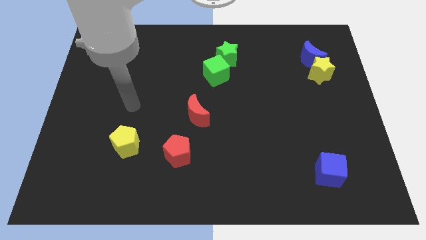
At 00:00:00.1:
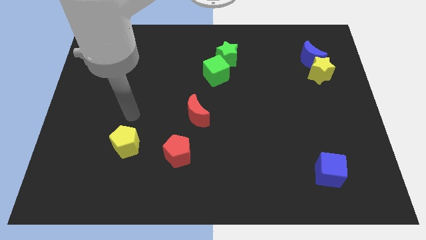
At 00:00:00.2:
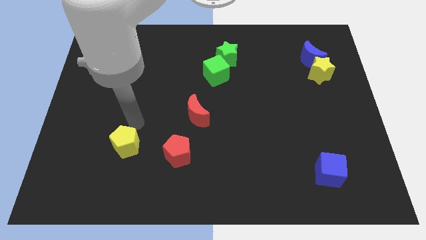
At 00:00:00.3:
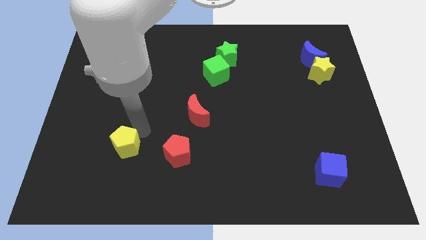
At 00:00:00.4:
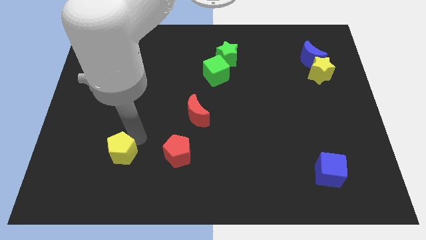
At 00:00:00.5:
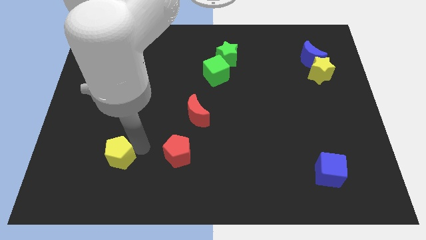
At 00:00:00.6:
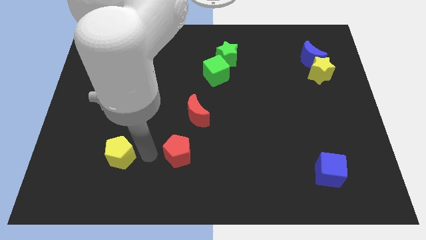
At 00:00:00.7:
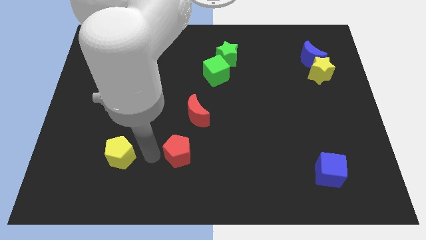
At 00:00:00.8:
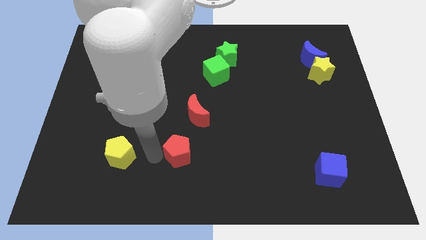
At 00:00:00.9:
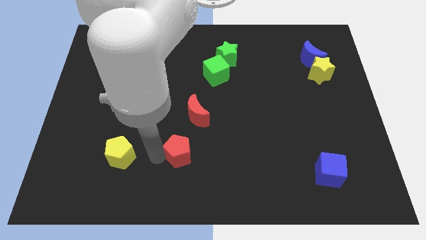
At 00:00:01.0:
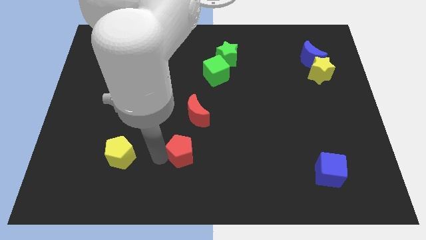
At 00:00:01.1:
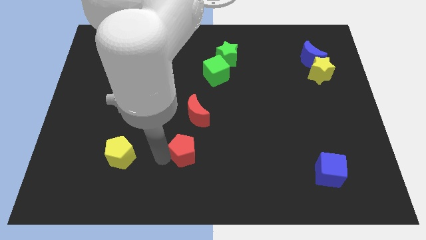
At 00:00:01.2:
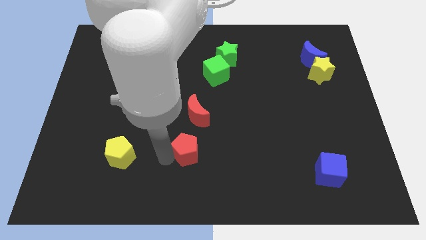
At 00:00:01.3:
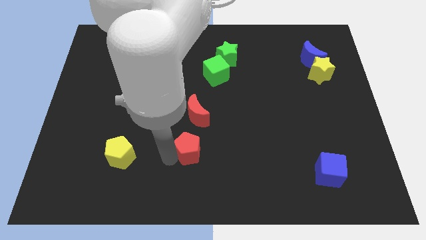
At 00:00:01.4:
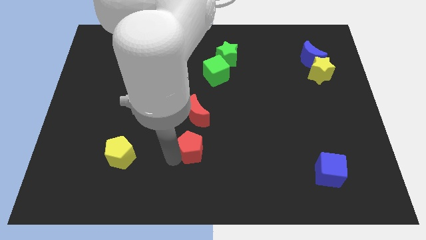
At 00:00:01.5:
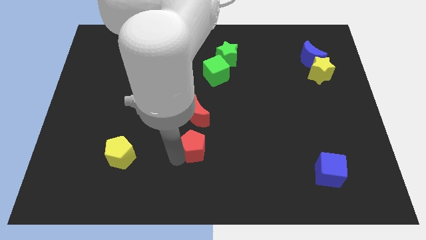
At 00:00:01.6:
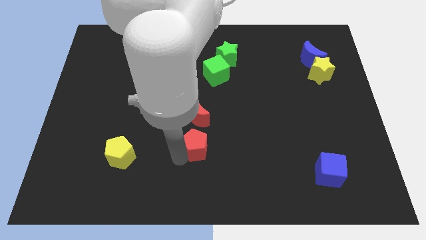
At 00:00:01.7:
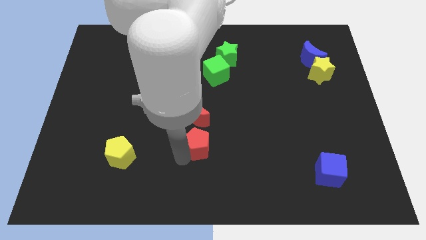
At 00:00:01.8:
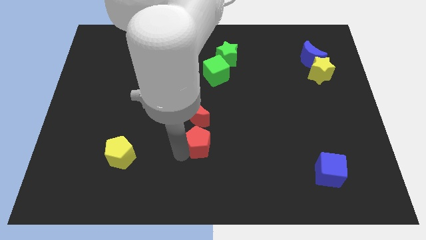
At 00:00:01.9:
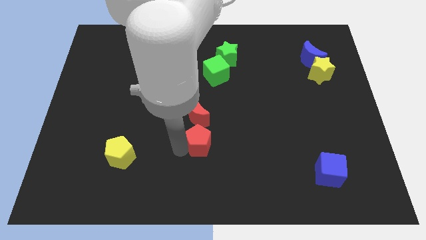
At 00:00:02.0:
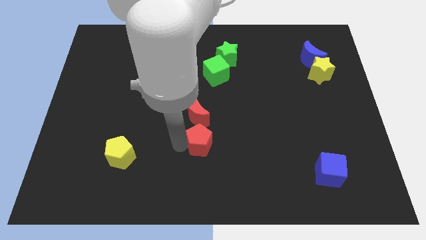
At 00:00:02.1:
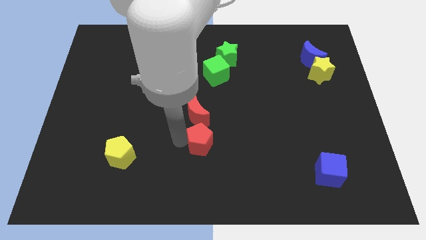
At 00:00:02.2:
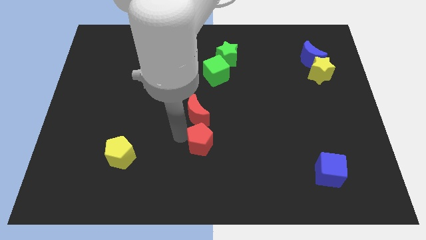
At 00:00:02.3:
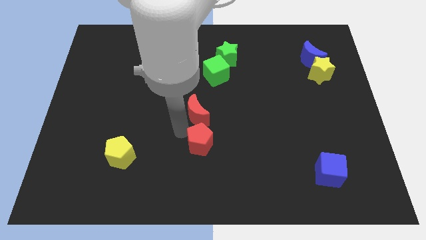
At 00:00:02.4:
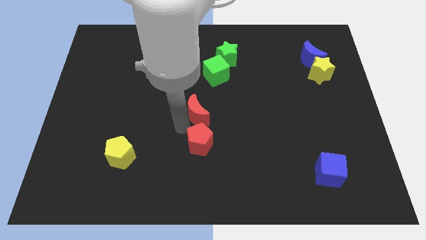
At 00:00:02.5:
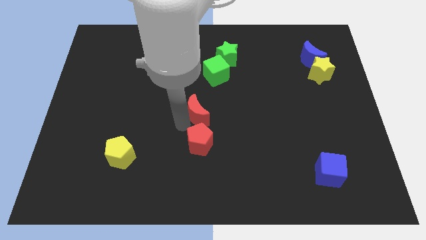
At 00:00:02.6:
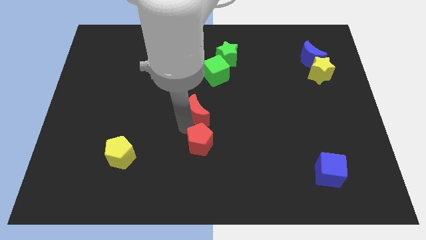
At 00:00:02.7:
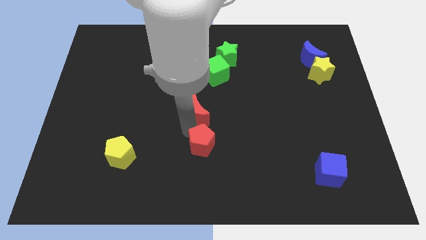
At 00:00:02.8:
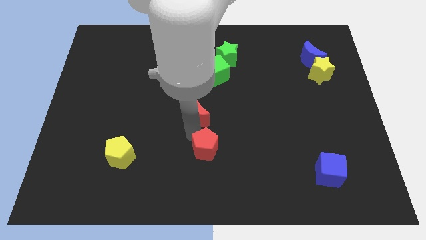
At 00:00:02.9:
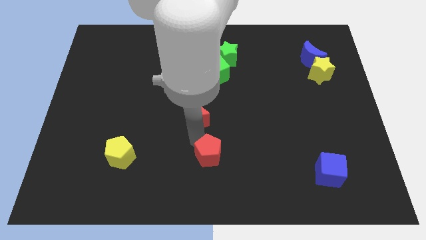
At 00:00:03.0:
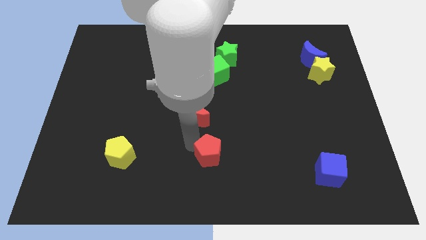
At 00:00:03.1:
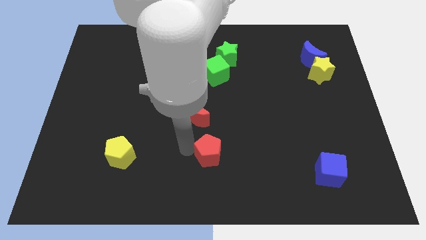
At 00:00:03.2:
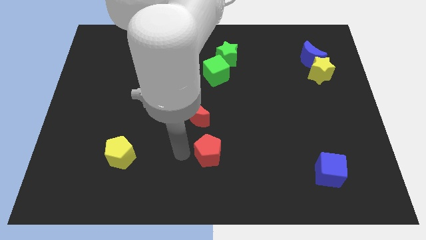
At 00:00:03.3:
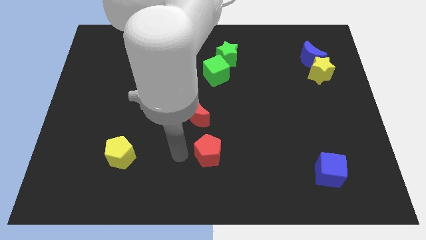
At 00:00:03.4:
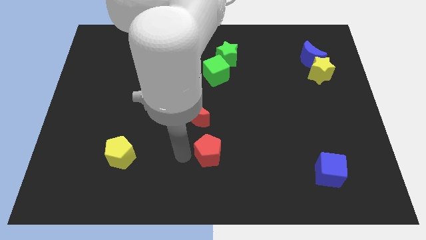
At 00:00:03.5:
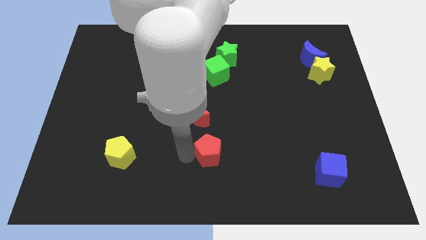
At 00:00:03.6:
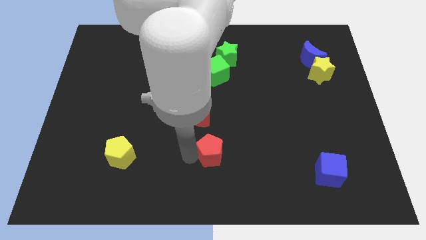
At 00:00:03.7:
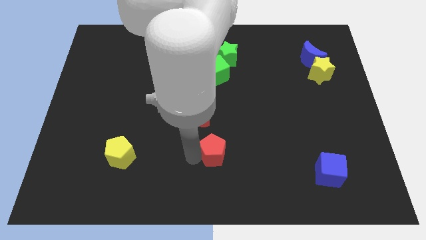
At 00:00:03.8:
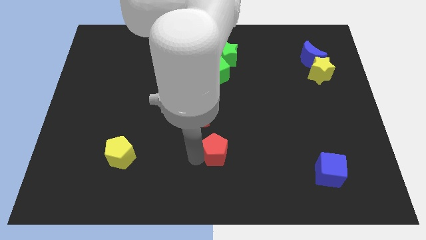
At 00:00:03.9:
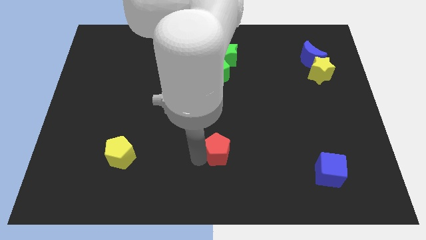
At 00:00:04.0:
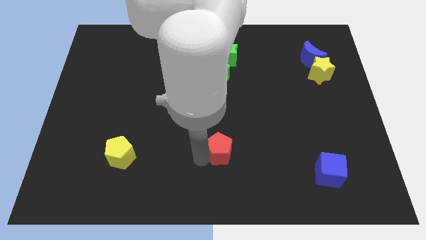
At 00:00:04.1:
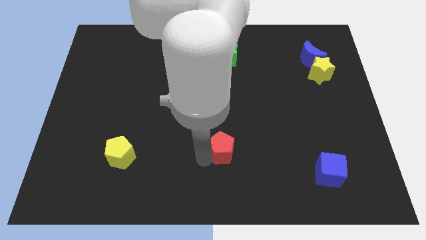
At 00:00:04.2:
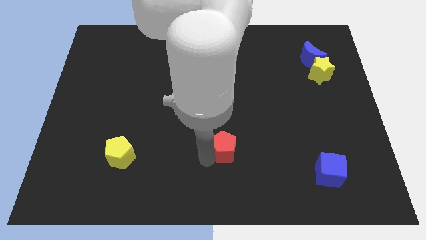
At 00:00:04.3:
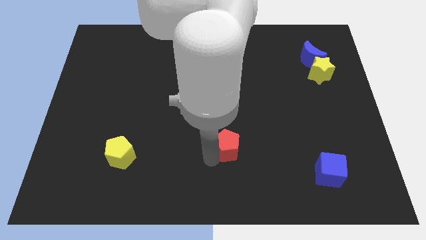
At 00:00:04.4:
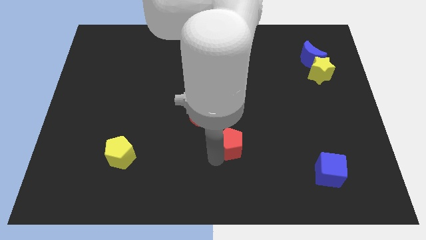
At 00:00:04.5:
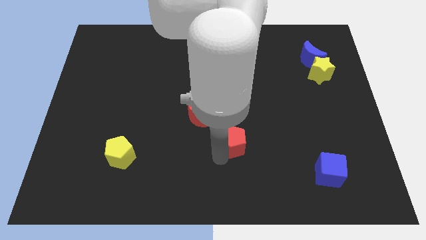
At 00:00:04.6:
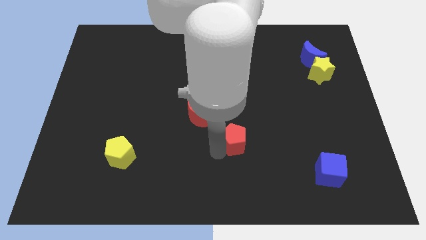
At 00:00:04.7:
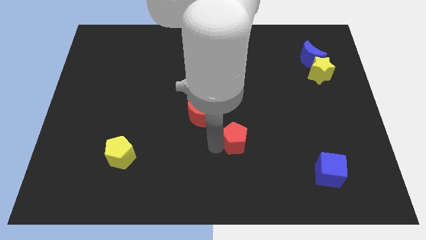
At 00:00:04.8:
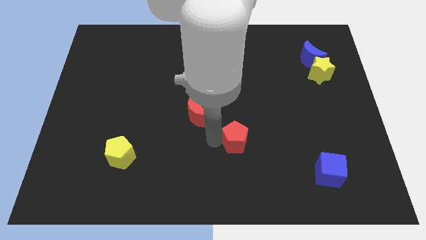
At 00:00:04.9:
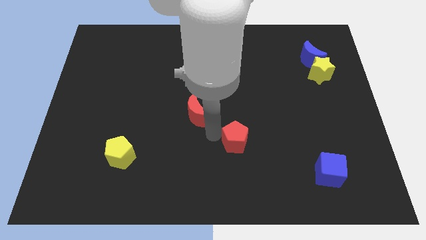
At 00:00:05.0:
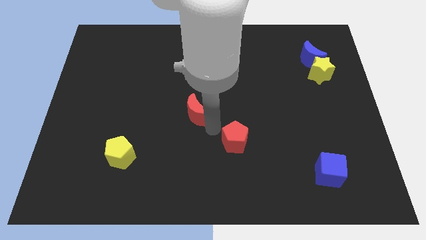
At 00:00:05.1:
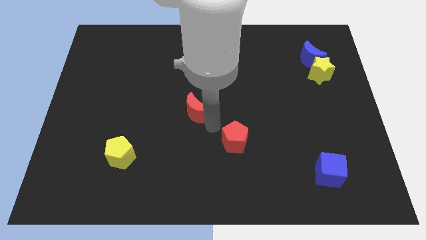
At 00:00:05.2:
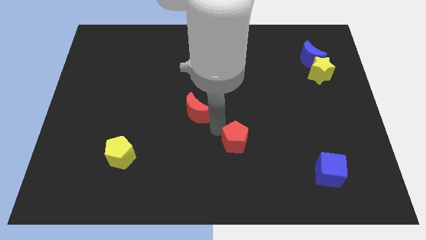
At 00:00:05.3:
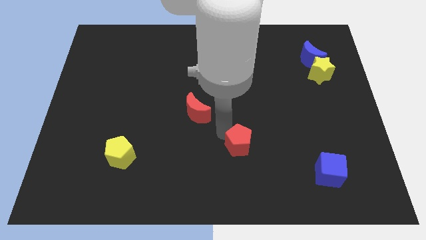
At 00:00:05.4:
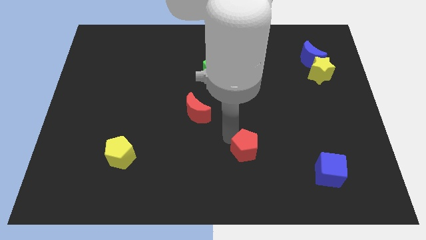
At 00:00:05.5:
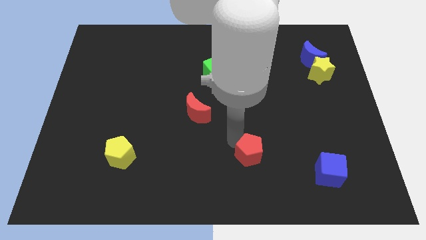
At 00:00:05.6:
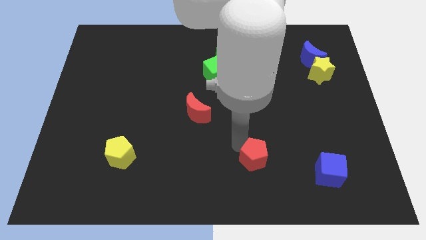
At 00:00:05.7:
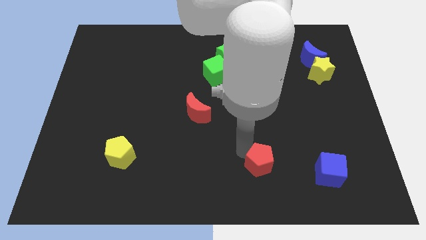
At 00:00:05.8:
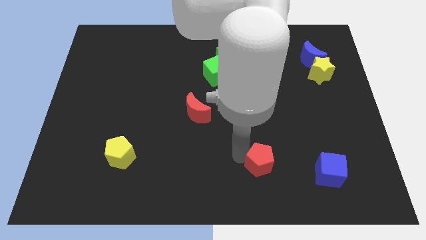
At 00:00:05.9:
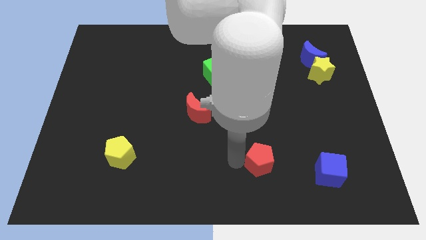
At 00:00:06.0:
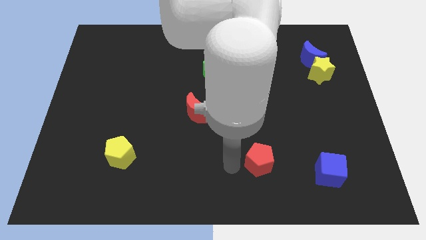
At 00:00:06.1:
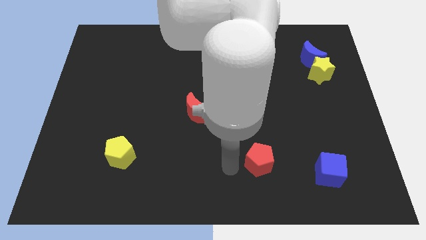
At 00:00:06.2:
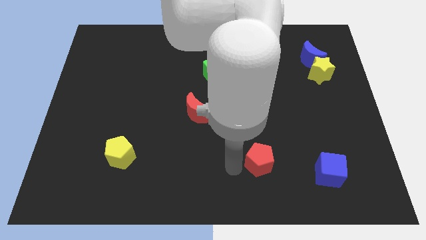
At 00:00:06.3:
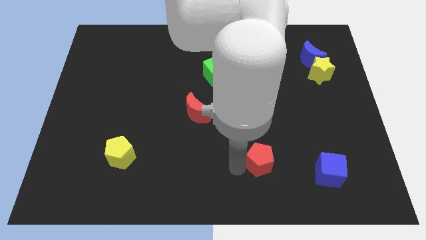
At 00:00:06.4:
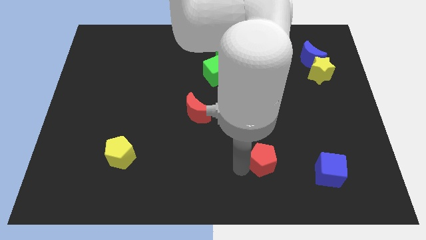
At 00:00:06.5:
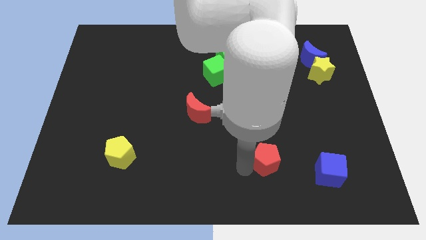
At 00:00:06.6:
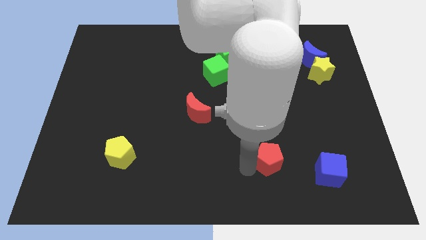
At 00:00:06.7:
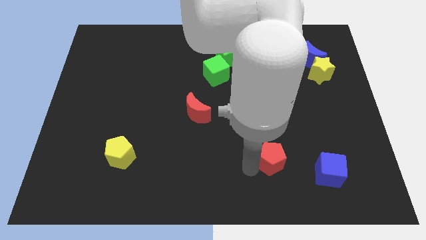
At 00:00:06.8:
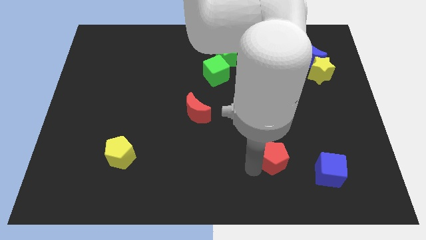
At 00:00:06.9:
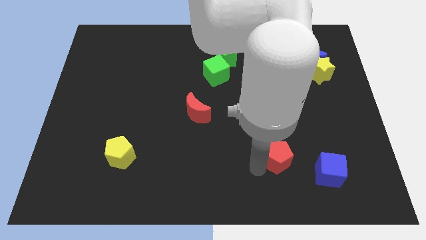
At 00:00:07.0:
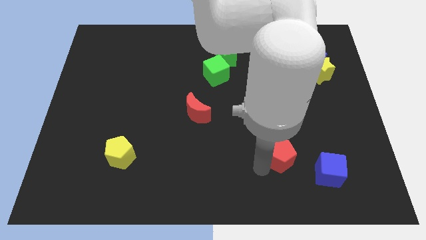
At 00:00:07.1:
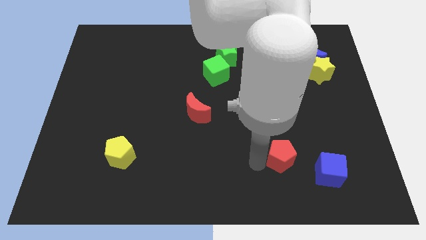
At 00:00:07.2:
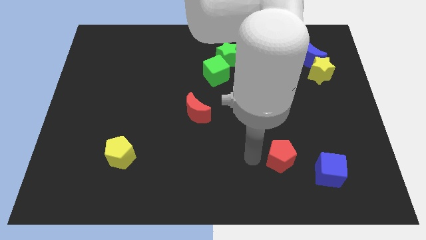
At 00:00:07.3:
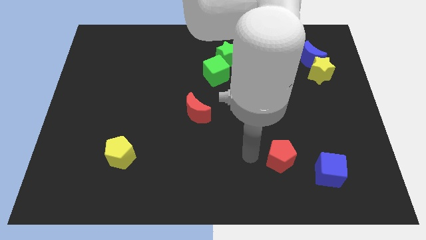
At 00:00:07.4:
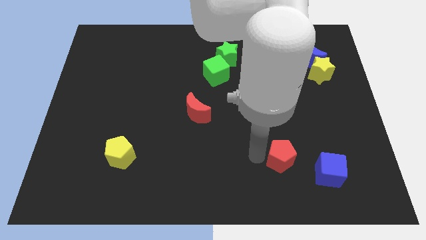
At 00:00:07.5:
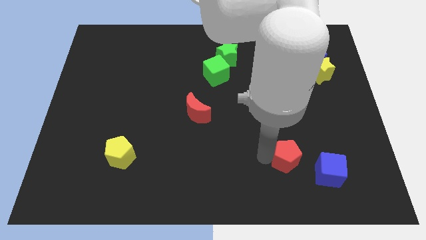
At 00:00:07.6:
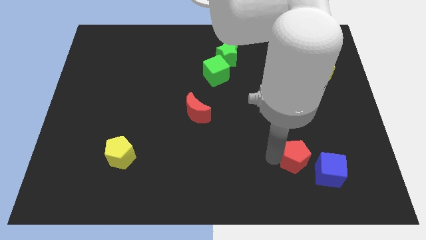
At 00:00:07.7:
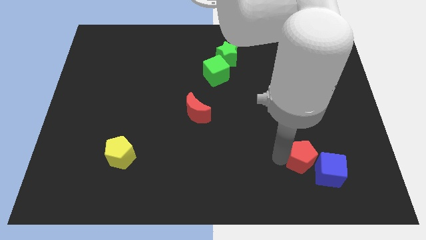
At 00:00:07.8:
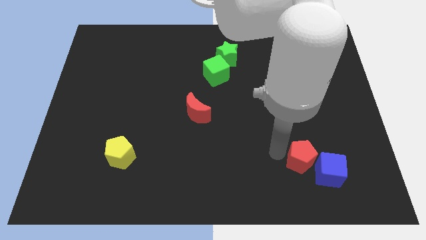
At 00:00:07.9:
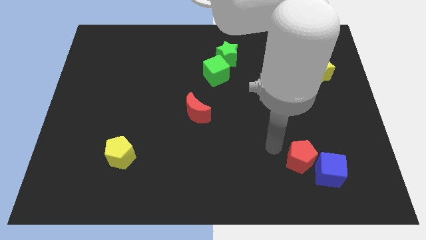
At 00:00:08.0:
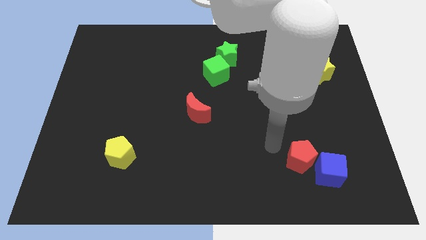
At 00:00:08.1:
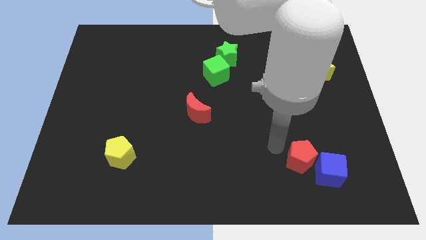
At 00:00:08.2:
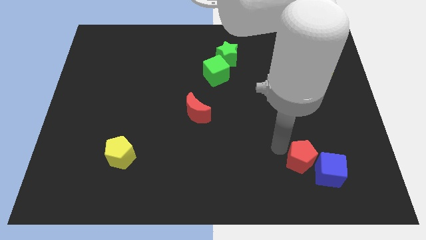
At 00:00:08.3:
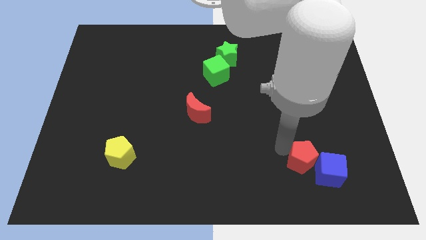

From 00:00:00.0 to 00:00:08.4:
move the red pentagon towards the blue cube
